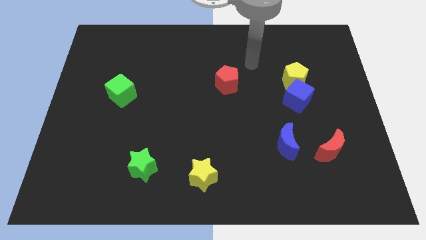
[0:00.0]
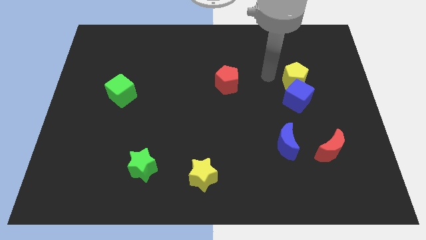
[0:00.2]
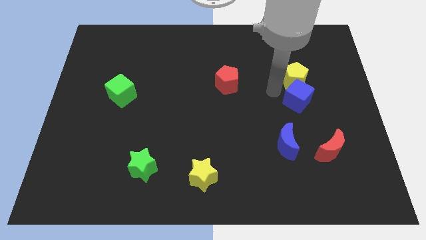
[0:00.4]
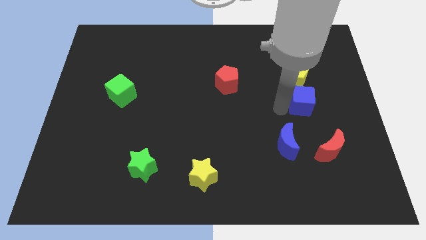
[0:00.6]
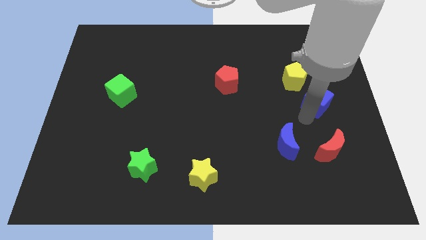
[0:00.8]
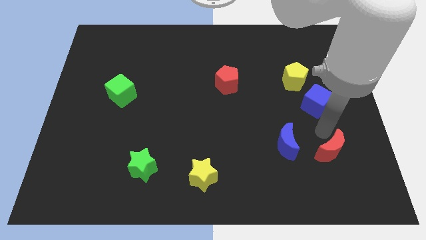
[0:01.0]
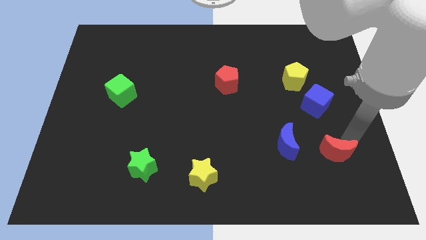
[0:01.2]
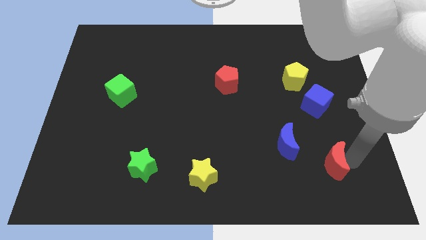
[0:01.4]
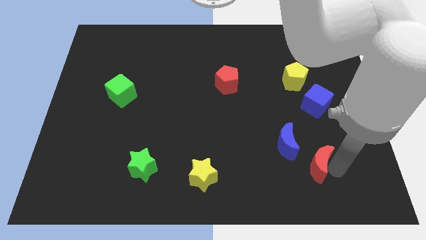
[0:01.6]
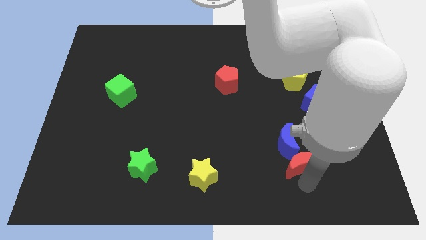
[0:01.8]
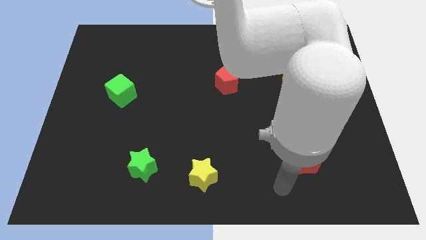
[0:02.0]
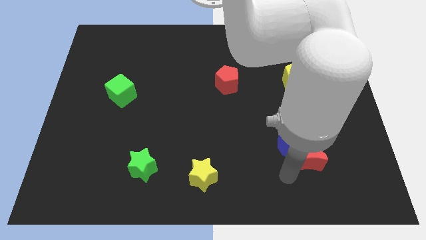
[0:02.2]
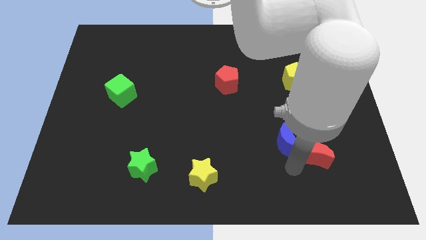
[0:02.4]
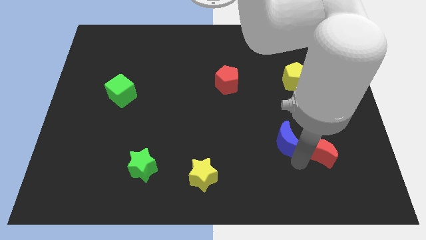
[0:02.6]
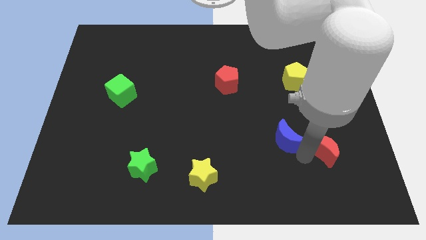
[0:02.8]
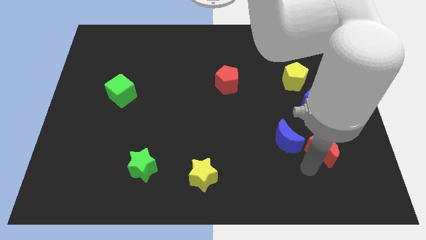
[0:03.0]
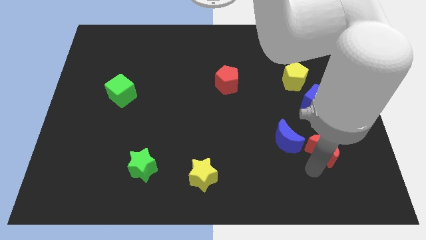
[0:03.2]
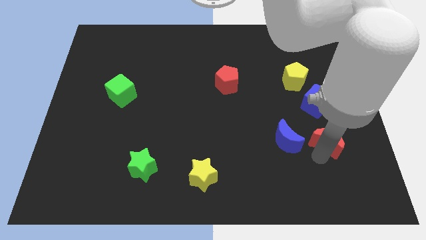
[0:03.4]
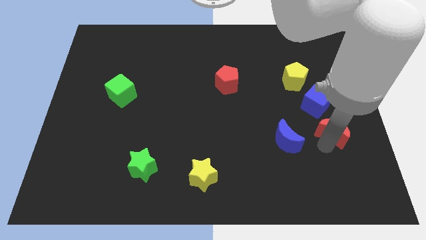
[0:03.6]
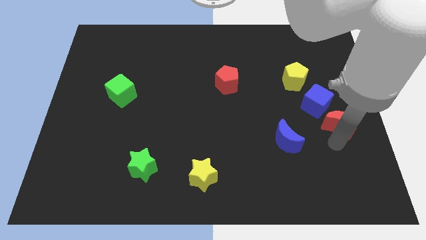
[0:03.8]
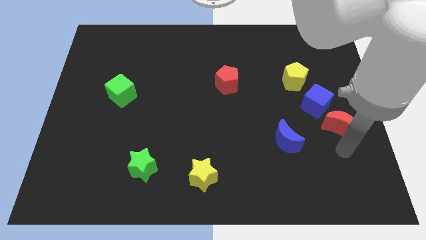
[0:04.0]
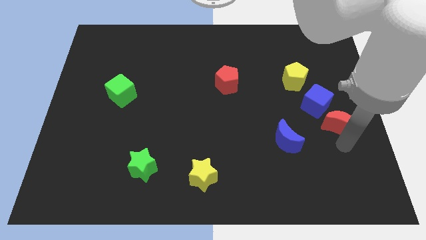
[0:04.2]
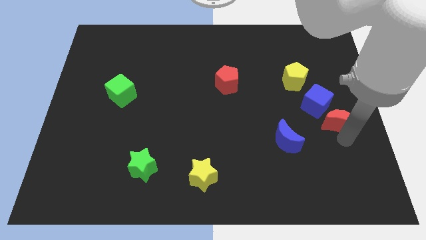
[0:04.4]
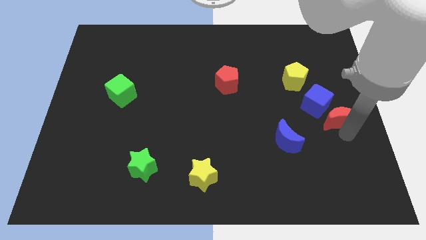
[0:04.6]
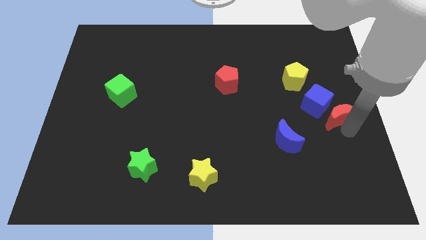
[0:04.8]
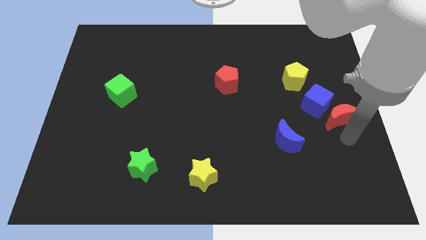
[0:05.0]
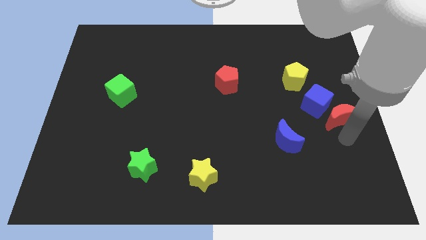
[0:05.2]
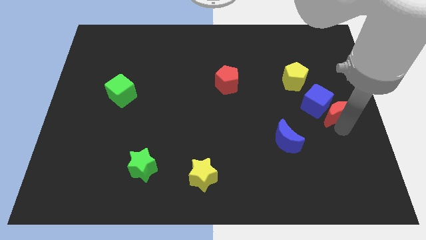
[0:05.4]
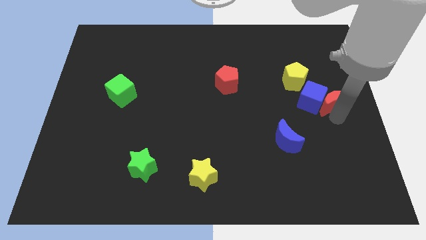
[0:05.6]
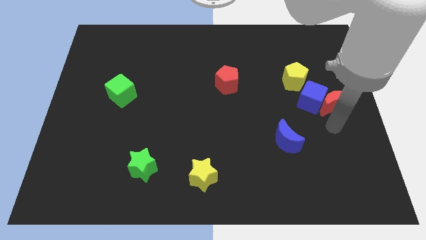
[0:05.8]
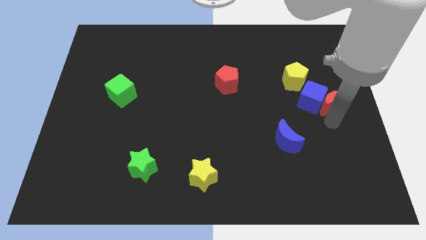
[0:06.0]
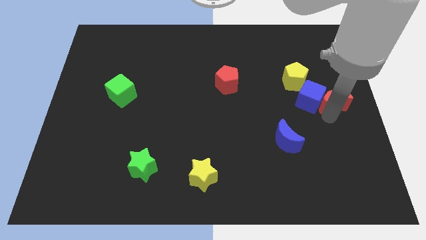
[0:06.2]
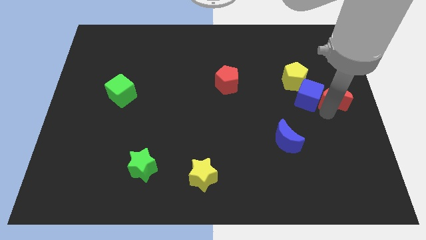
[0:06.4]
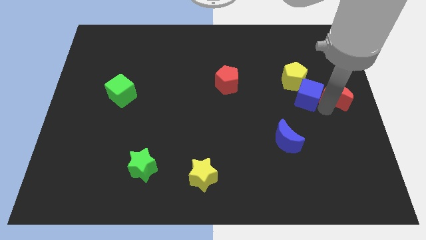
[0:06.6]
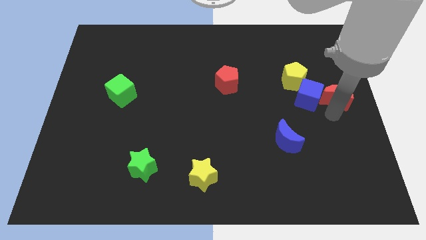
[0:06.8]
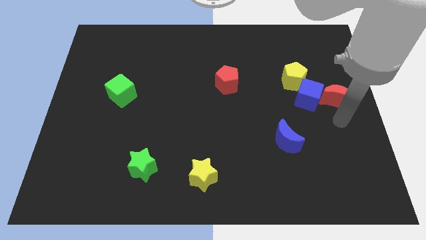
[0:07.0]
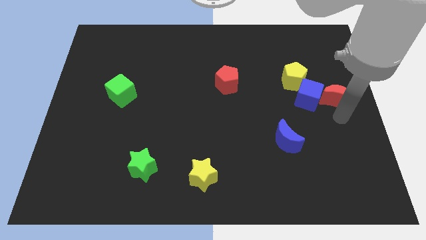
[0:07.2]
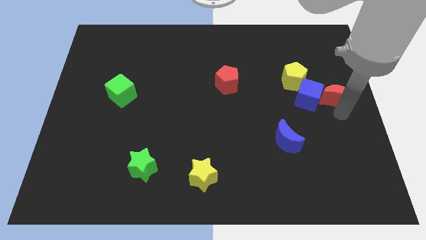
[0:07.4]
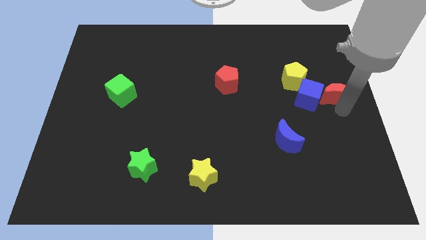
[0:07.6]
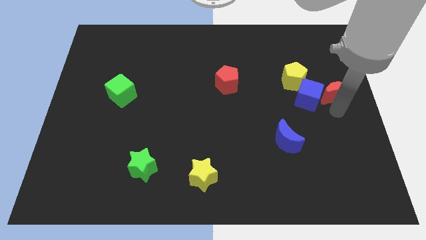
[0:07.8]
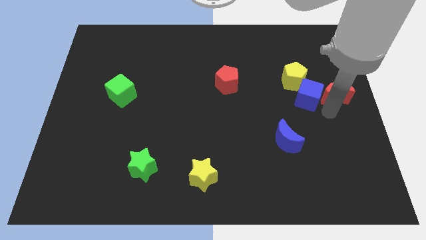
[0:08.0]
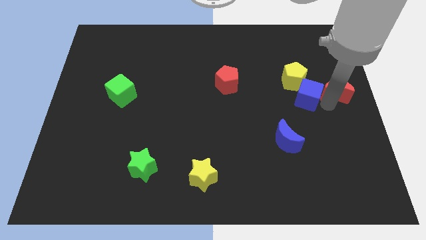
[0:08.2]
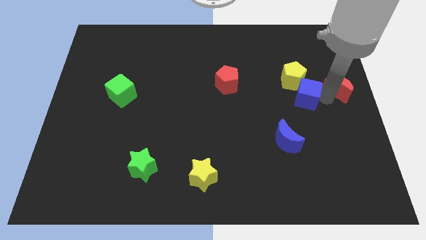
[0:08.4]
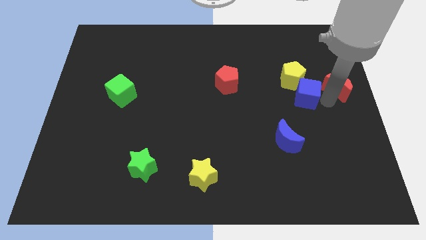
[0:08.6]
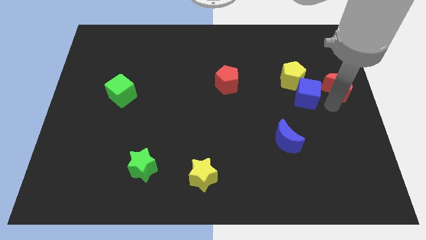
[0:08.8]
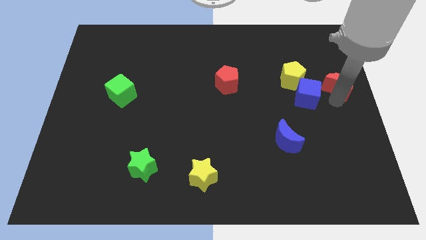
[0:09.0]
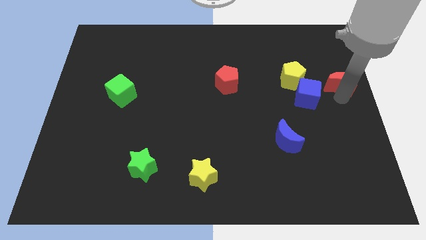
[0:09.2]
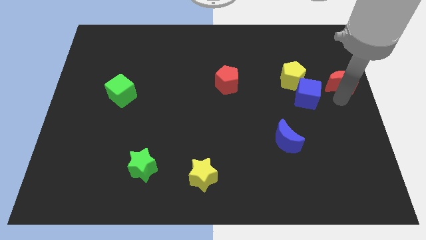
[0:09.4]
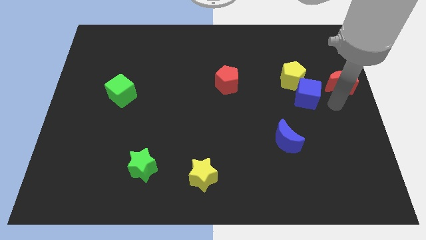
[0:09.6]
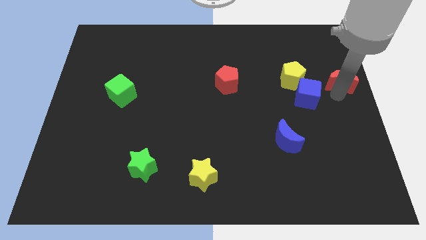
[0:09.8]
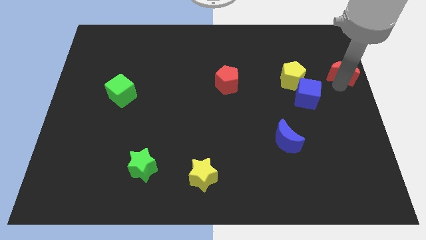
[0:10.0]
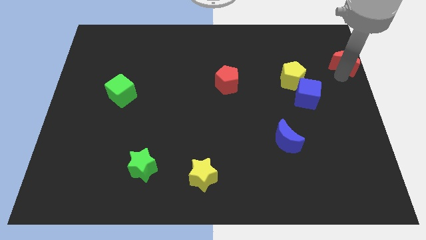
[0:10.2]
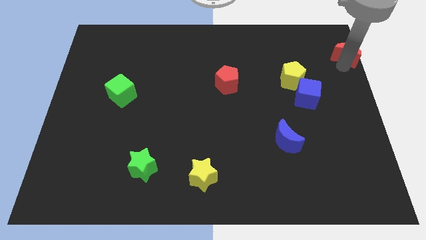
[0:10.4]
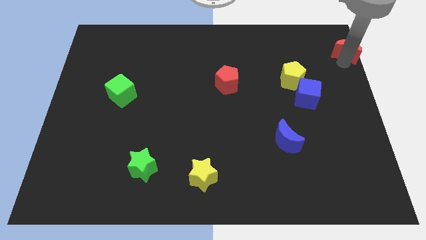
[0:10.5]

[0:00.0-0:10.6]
push the red moon to the top right

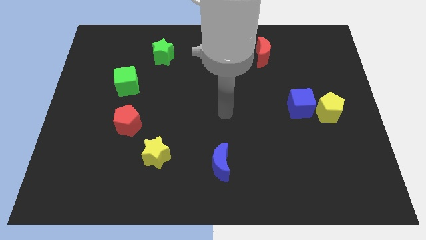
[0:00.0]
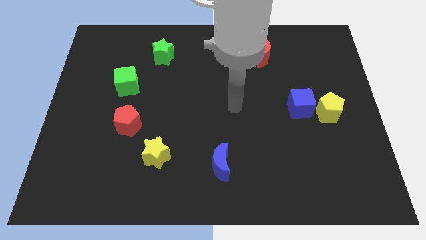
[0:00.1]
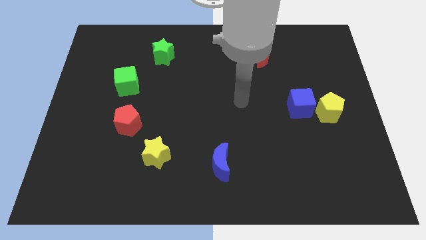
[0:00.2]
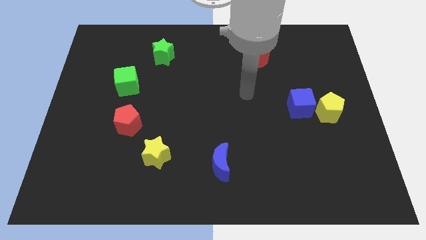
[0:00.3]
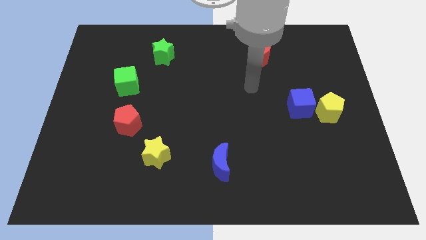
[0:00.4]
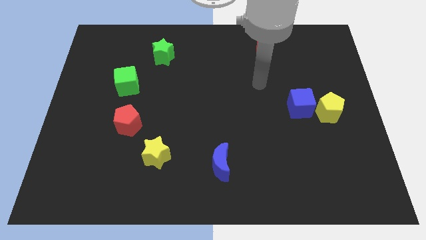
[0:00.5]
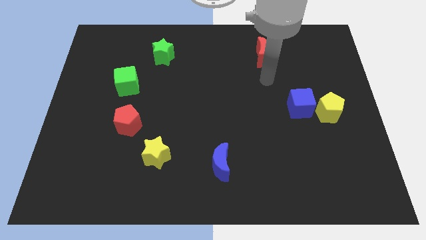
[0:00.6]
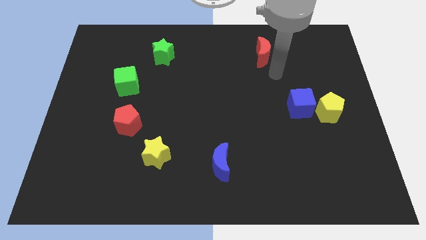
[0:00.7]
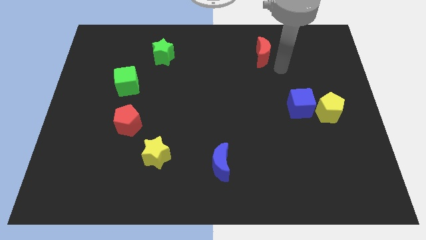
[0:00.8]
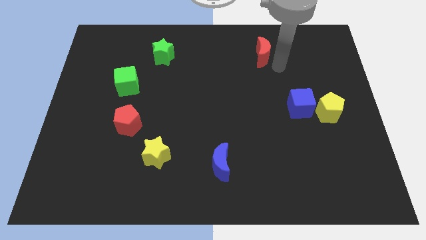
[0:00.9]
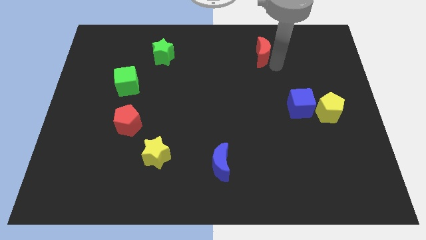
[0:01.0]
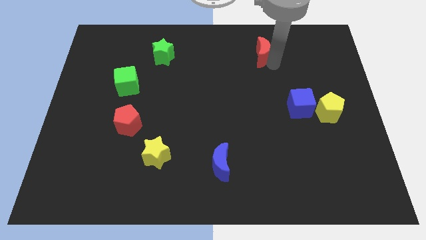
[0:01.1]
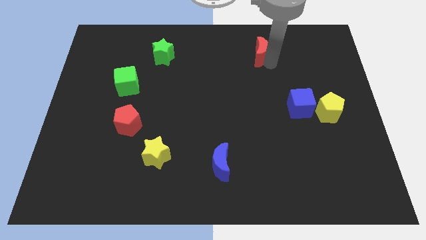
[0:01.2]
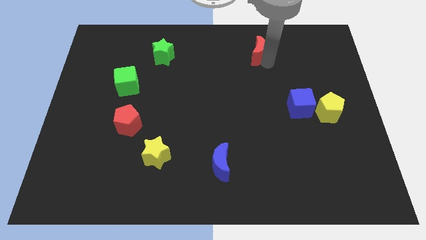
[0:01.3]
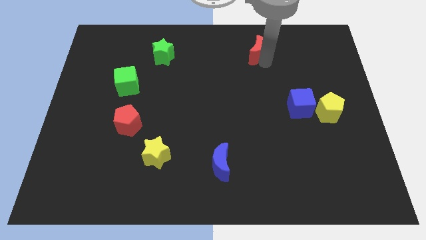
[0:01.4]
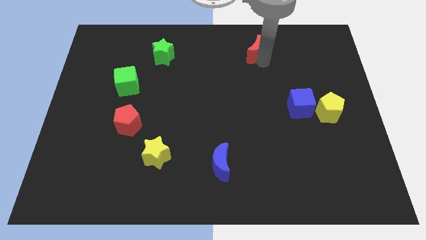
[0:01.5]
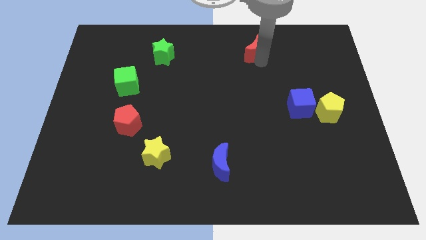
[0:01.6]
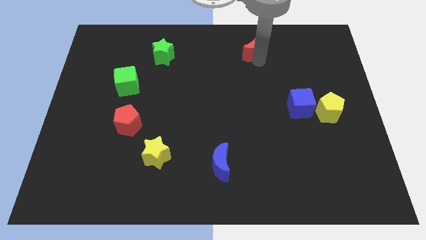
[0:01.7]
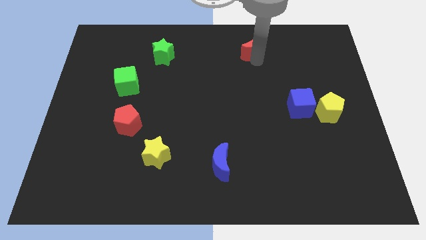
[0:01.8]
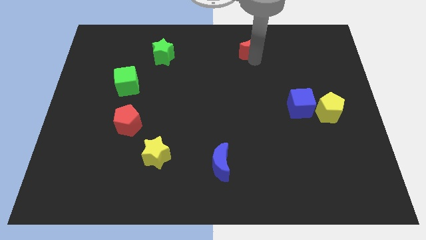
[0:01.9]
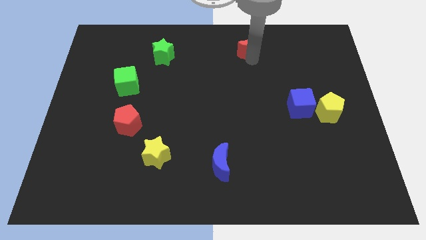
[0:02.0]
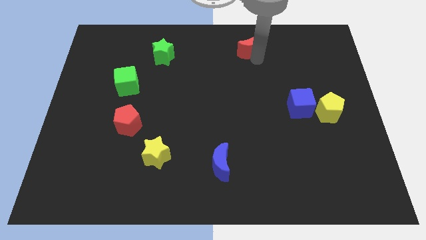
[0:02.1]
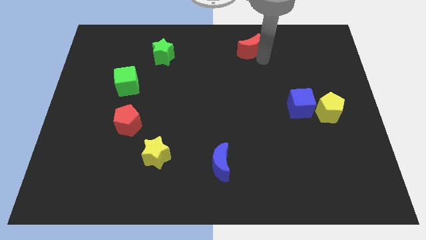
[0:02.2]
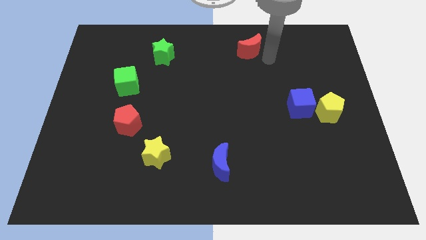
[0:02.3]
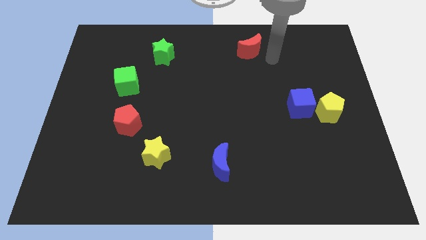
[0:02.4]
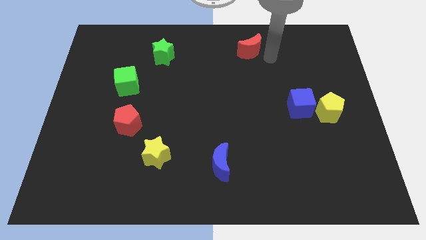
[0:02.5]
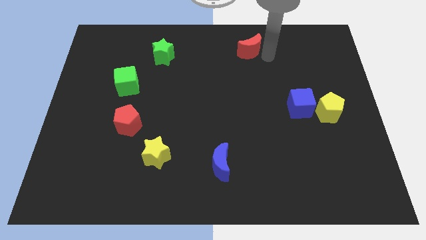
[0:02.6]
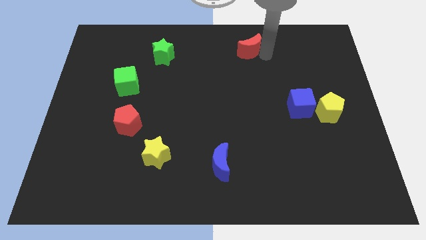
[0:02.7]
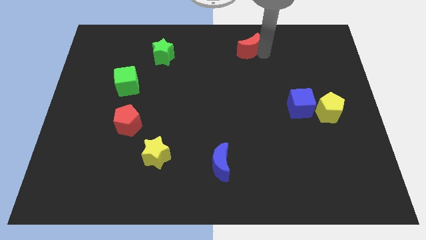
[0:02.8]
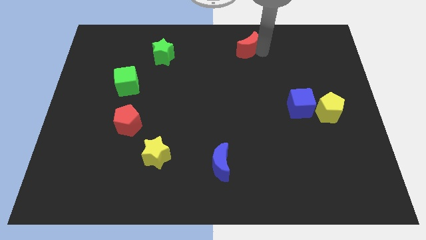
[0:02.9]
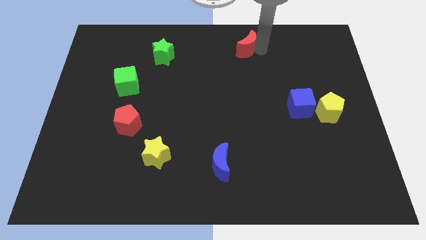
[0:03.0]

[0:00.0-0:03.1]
push the red moon to the top
